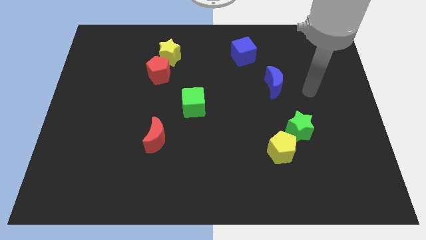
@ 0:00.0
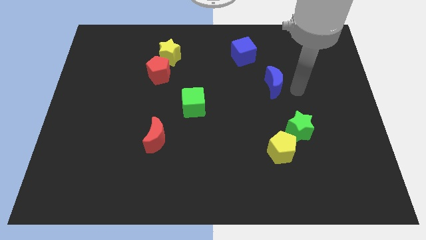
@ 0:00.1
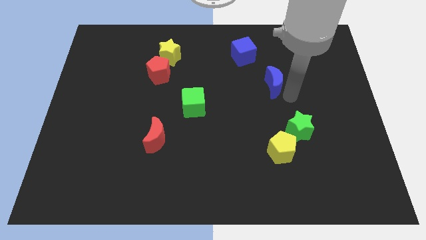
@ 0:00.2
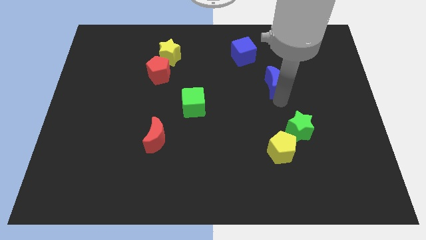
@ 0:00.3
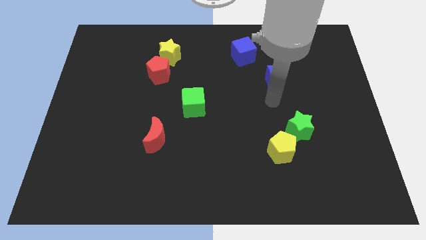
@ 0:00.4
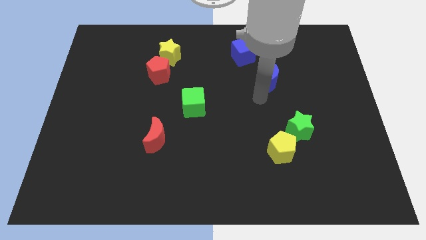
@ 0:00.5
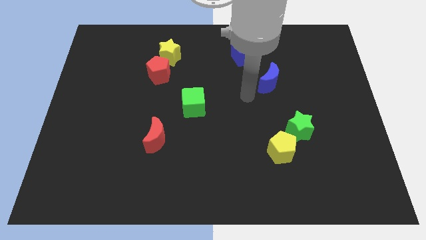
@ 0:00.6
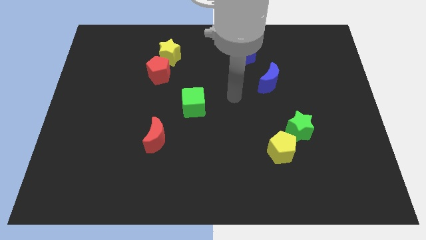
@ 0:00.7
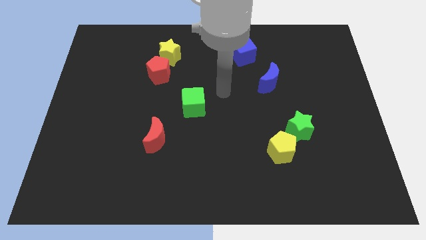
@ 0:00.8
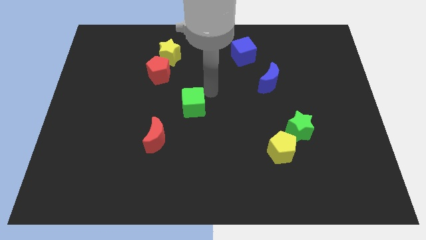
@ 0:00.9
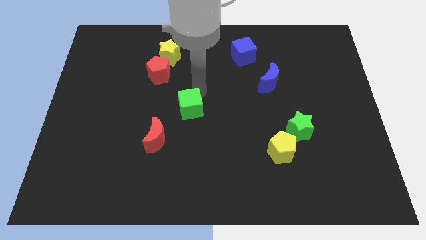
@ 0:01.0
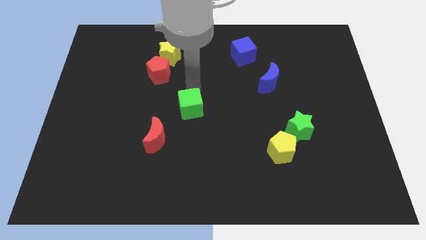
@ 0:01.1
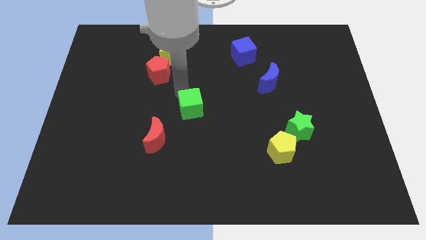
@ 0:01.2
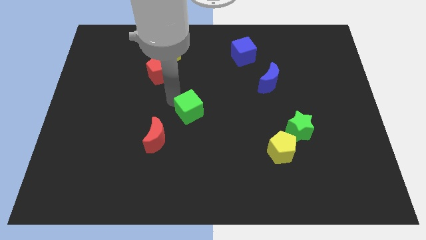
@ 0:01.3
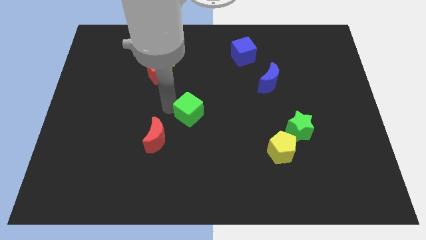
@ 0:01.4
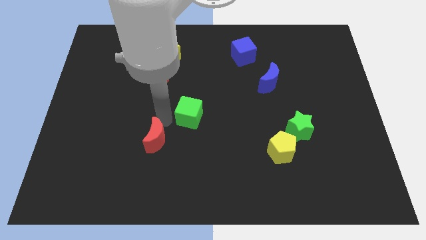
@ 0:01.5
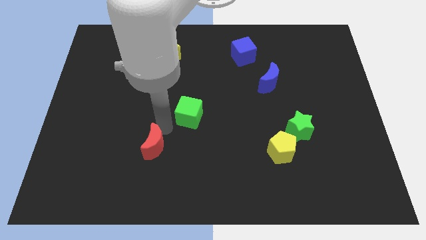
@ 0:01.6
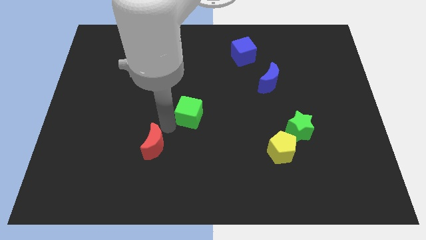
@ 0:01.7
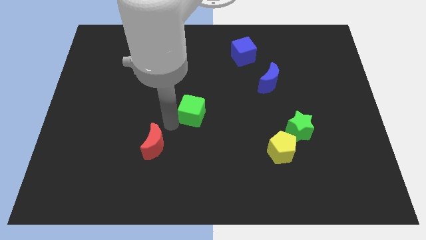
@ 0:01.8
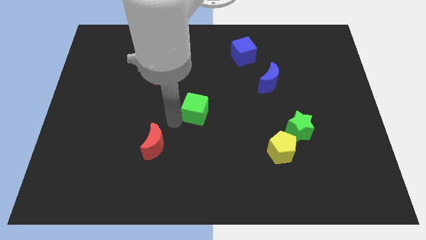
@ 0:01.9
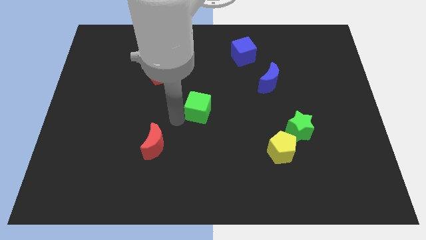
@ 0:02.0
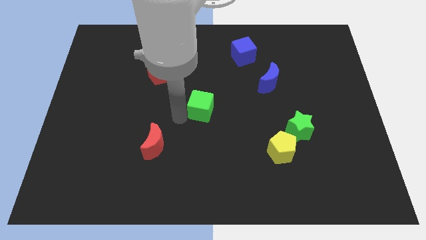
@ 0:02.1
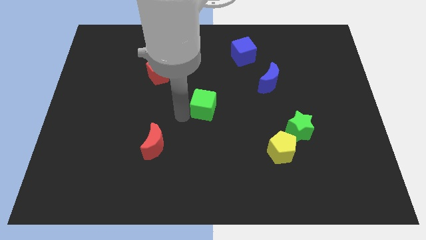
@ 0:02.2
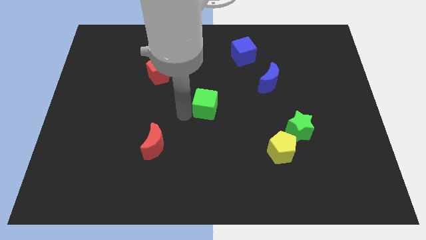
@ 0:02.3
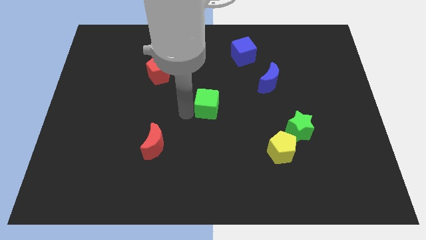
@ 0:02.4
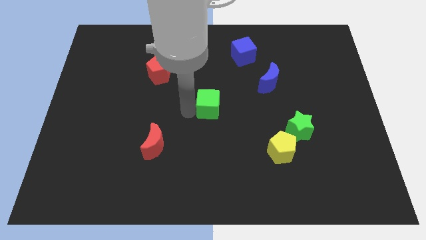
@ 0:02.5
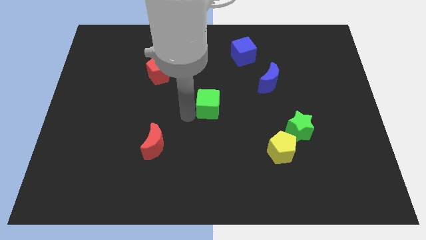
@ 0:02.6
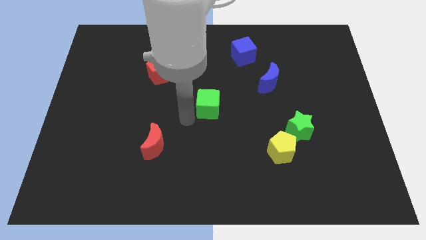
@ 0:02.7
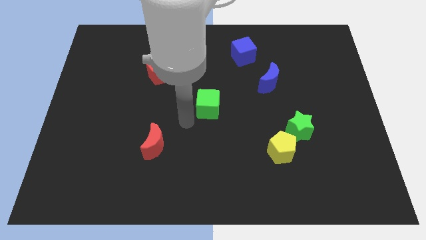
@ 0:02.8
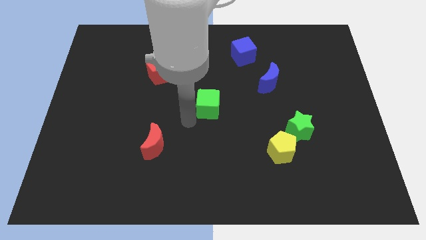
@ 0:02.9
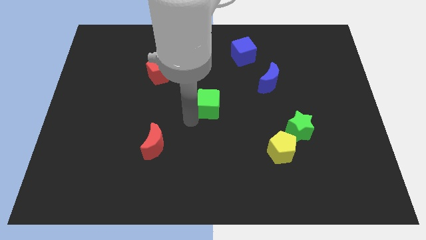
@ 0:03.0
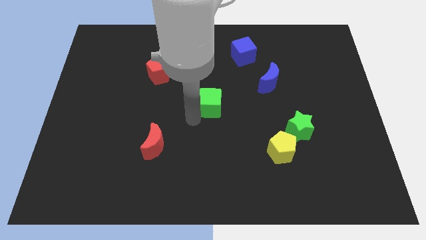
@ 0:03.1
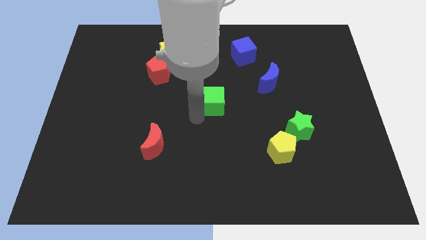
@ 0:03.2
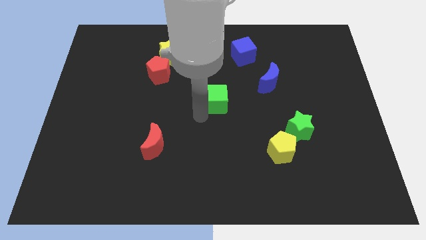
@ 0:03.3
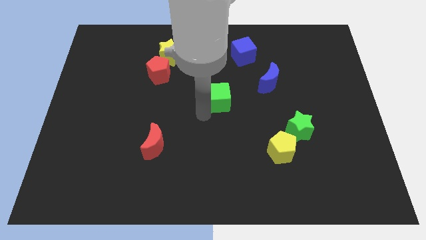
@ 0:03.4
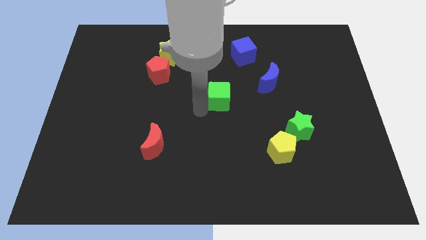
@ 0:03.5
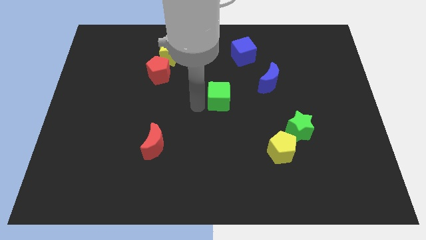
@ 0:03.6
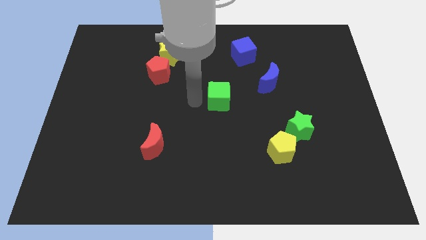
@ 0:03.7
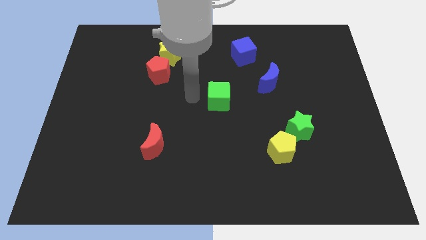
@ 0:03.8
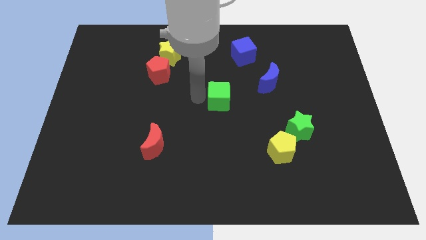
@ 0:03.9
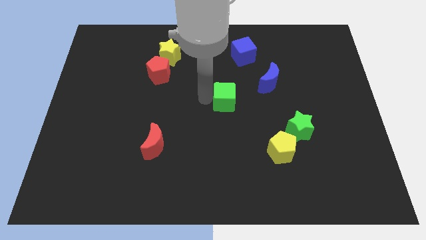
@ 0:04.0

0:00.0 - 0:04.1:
move the green cube to the right somewhat

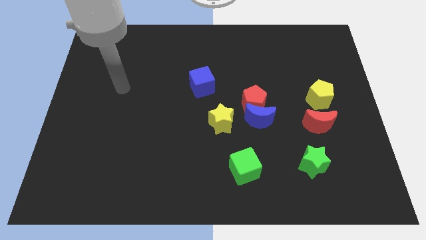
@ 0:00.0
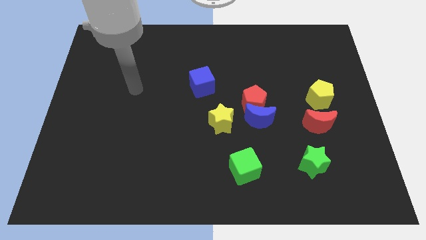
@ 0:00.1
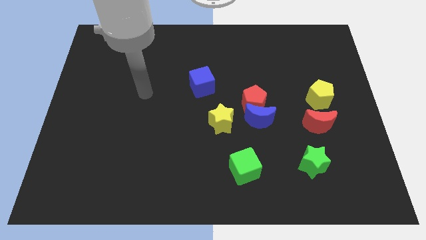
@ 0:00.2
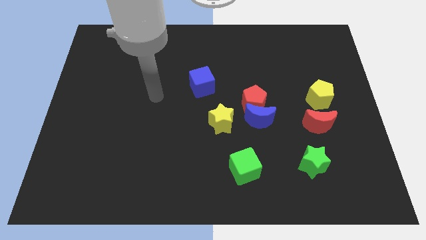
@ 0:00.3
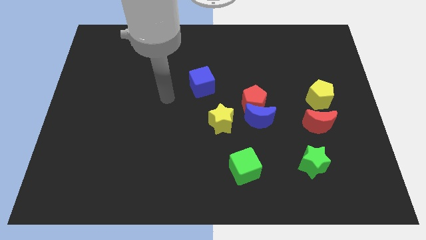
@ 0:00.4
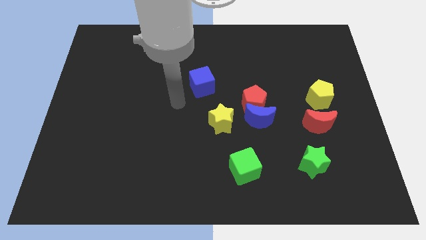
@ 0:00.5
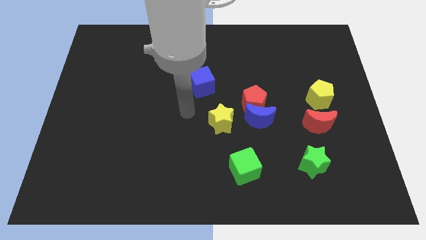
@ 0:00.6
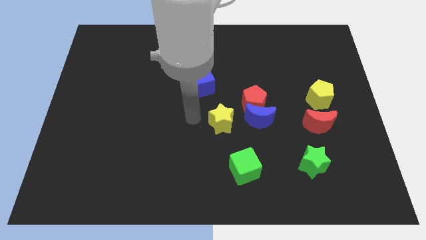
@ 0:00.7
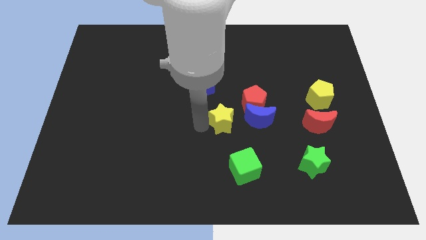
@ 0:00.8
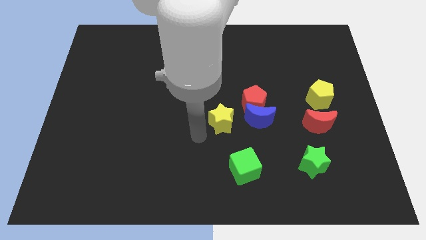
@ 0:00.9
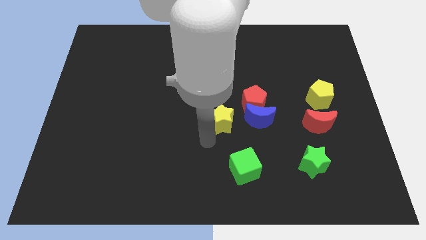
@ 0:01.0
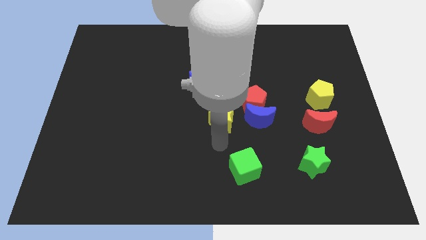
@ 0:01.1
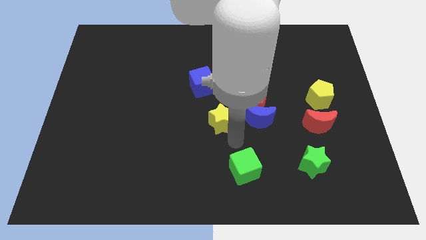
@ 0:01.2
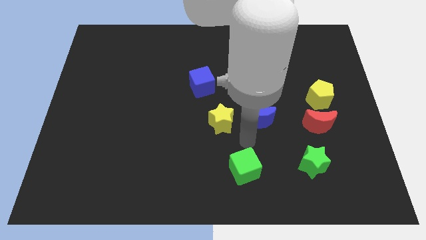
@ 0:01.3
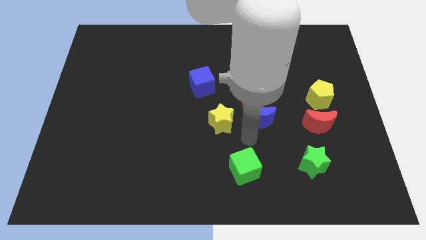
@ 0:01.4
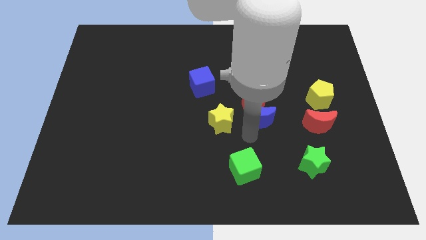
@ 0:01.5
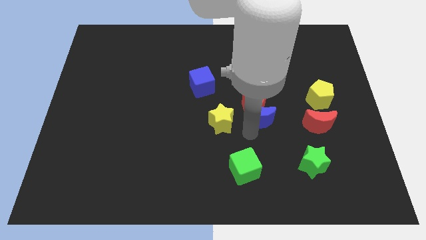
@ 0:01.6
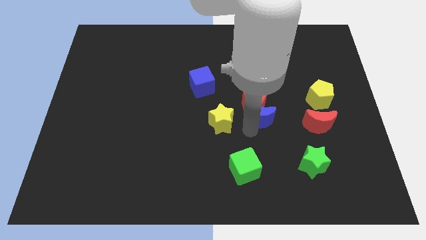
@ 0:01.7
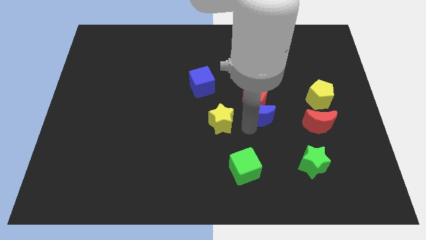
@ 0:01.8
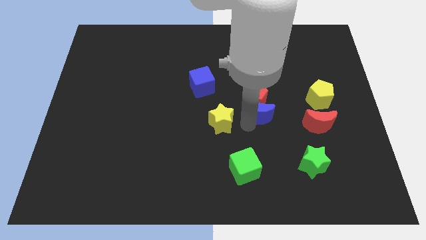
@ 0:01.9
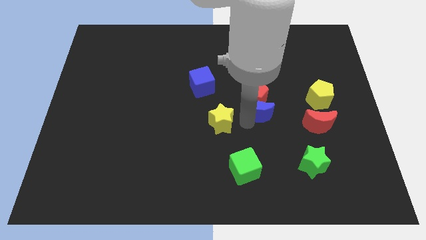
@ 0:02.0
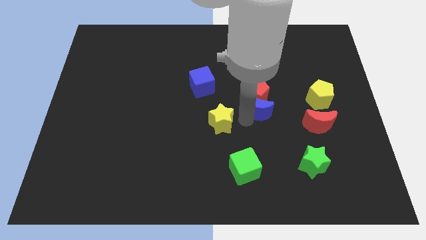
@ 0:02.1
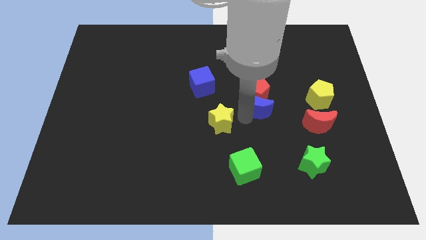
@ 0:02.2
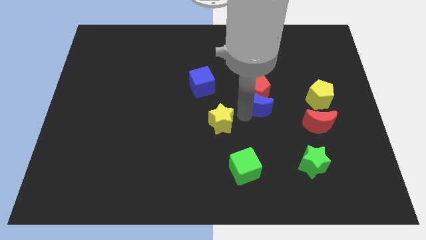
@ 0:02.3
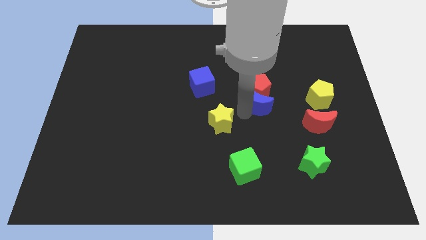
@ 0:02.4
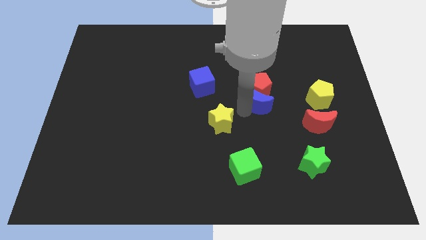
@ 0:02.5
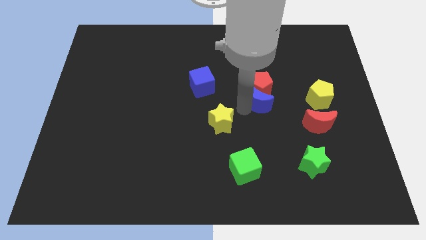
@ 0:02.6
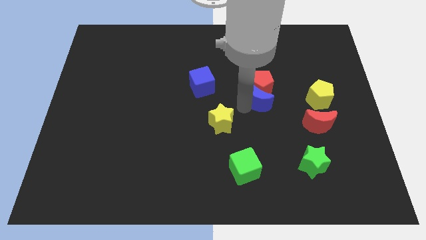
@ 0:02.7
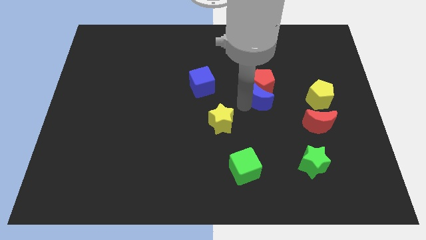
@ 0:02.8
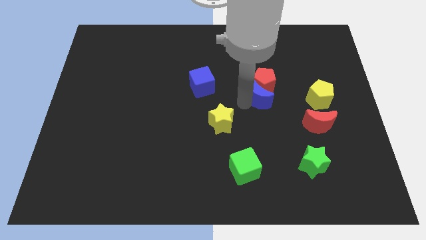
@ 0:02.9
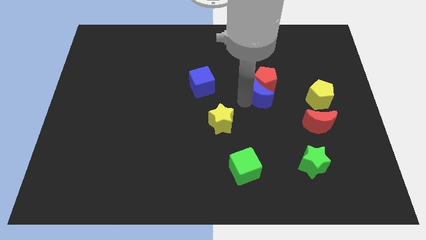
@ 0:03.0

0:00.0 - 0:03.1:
slightly push the blue moon upwards

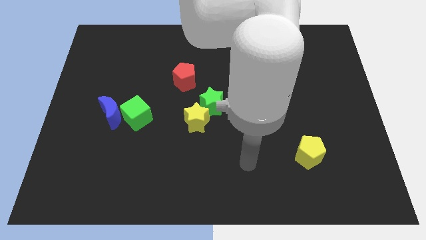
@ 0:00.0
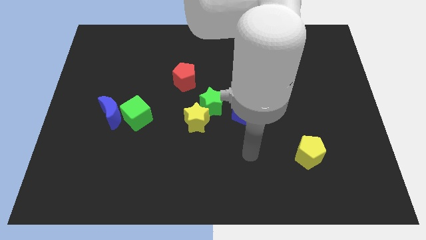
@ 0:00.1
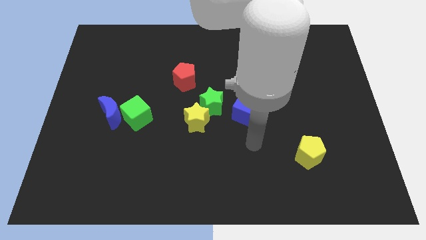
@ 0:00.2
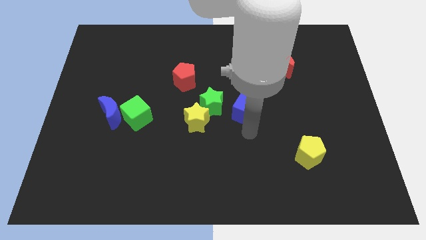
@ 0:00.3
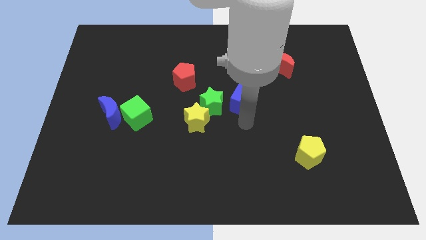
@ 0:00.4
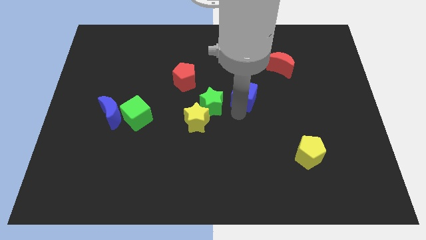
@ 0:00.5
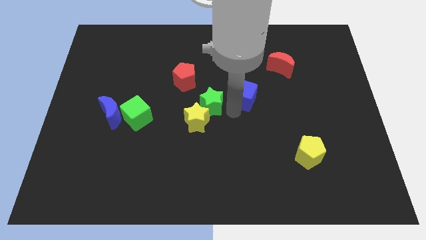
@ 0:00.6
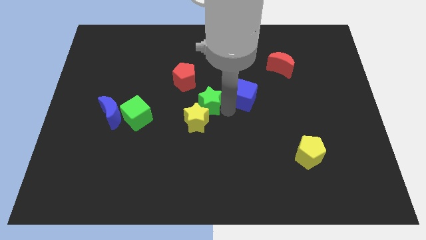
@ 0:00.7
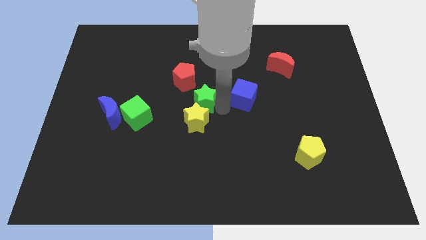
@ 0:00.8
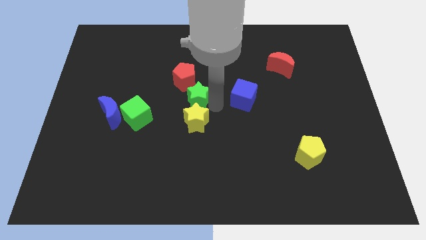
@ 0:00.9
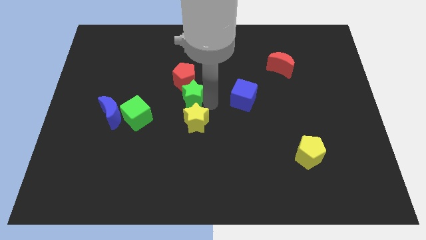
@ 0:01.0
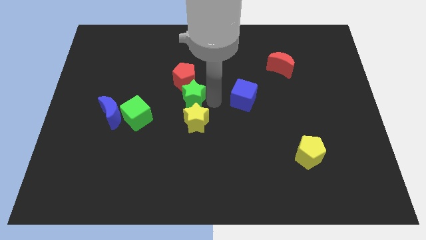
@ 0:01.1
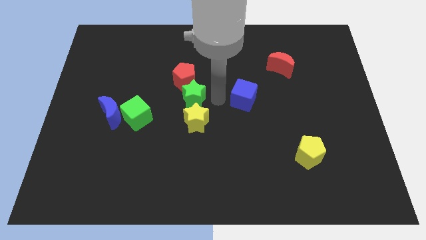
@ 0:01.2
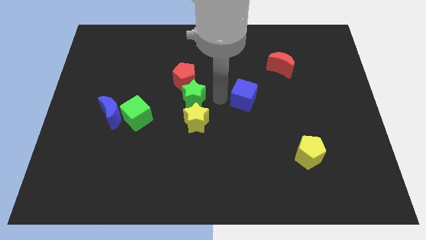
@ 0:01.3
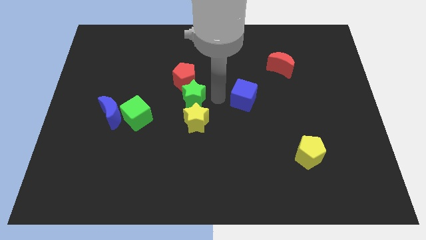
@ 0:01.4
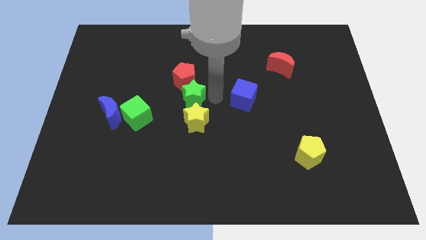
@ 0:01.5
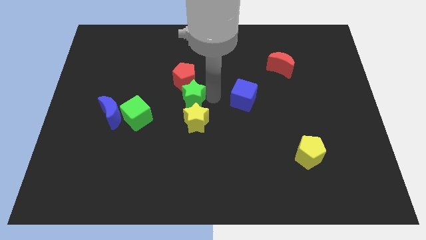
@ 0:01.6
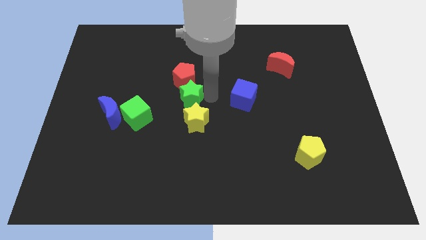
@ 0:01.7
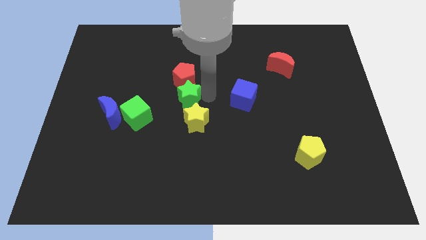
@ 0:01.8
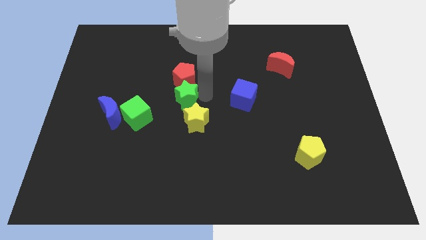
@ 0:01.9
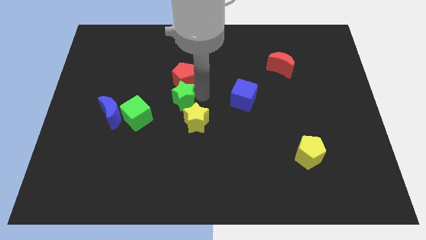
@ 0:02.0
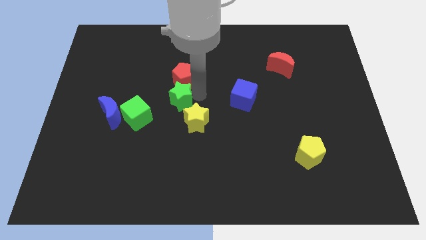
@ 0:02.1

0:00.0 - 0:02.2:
slightly move the green star to the left
